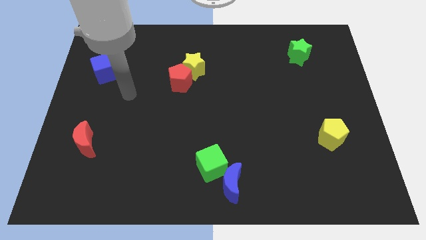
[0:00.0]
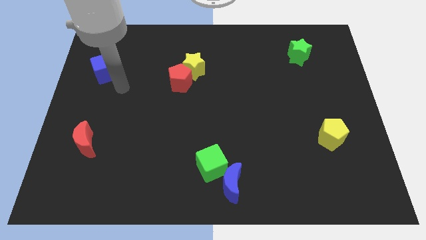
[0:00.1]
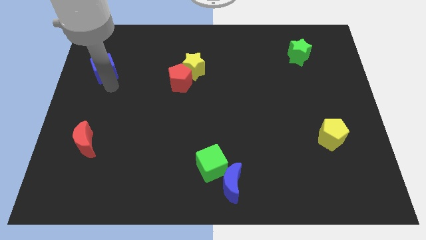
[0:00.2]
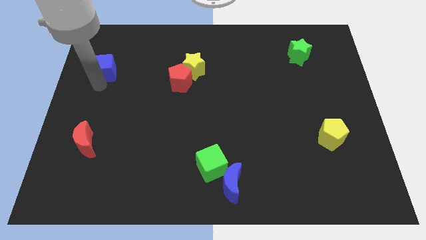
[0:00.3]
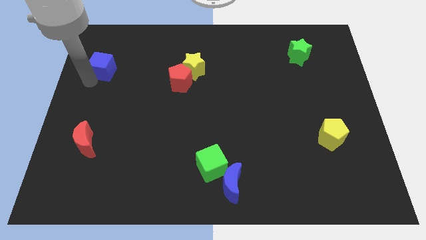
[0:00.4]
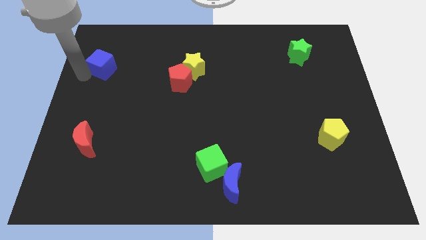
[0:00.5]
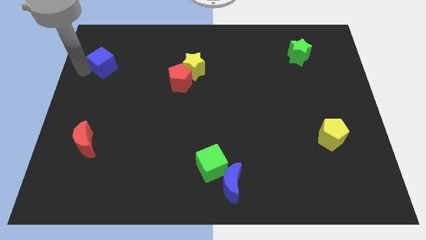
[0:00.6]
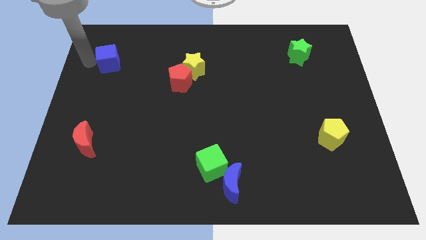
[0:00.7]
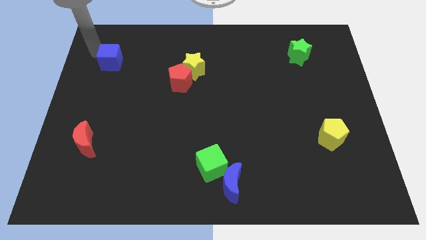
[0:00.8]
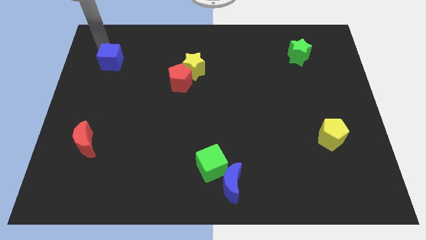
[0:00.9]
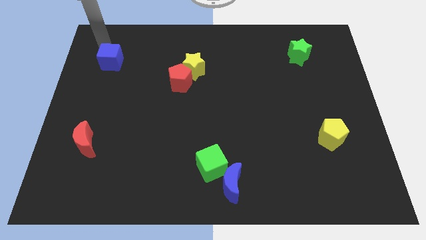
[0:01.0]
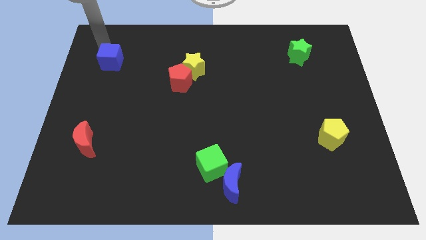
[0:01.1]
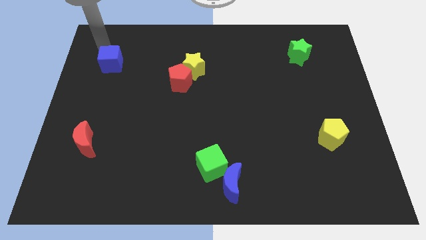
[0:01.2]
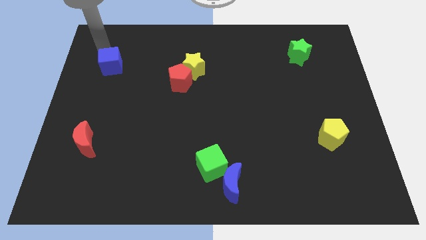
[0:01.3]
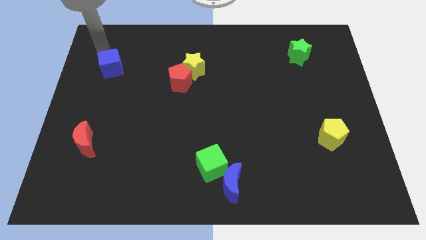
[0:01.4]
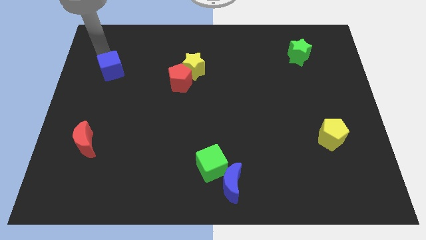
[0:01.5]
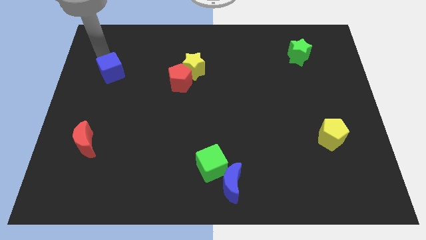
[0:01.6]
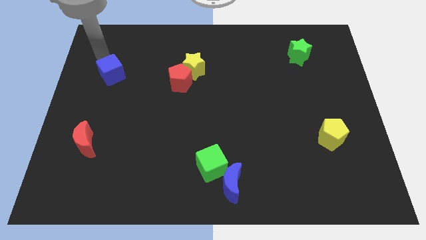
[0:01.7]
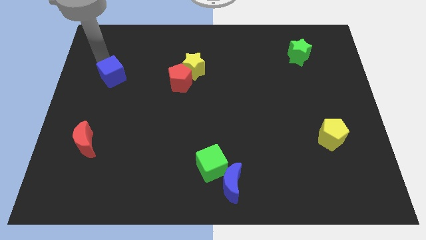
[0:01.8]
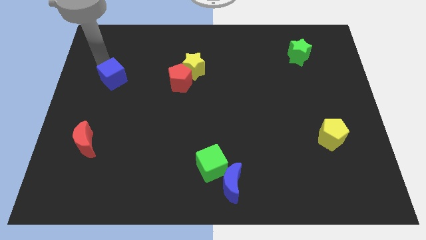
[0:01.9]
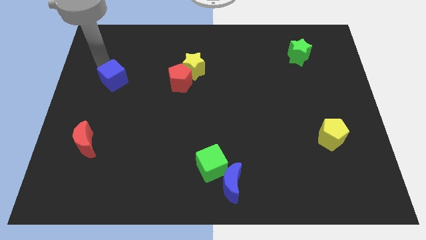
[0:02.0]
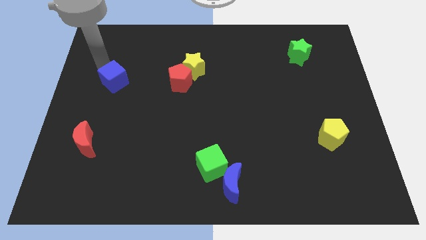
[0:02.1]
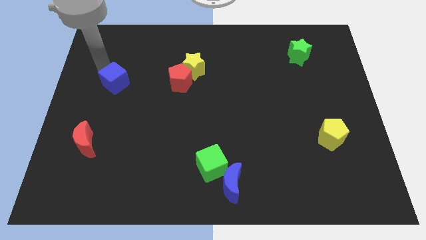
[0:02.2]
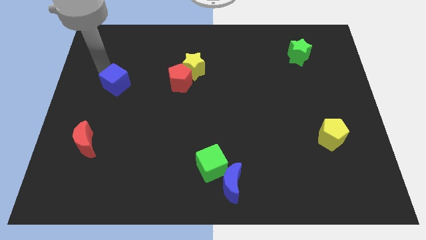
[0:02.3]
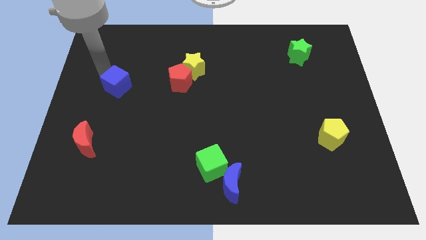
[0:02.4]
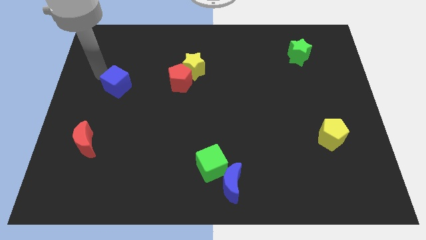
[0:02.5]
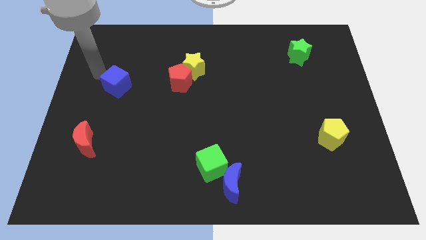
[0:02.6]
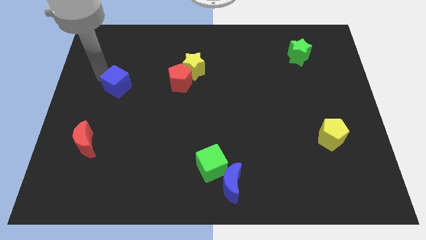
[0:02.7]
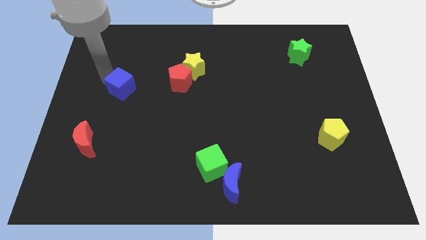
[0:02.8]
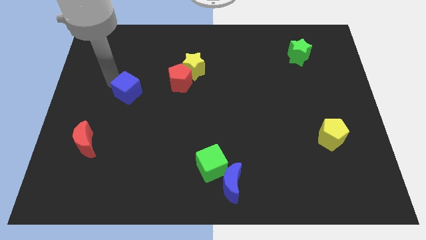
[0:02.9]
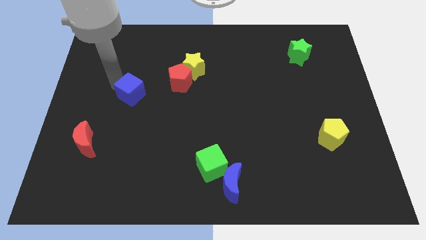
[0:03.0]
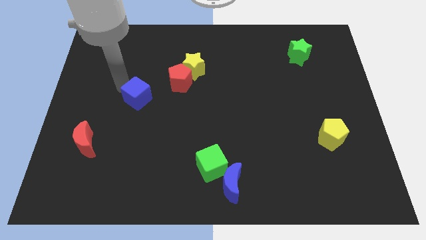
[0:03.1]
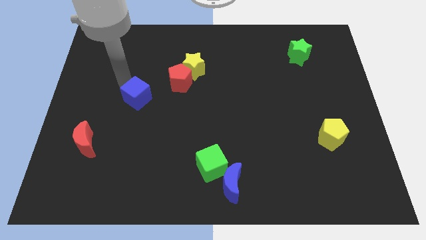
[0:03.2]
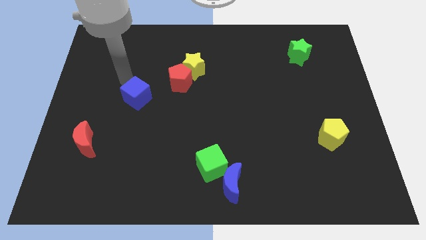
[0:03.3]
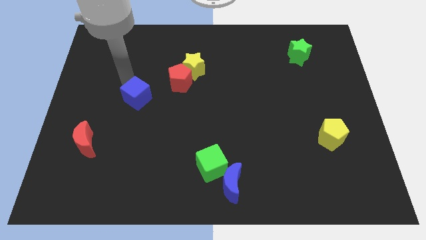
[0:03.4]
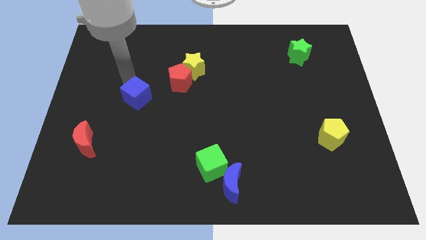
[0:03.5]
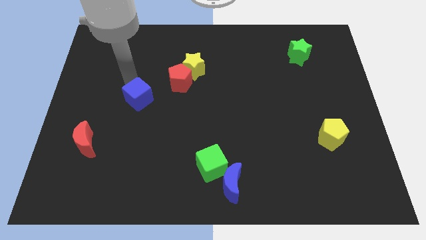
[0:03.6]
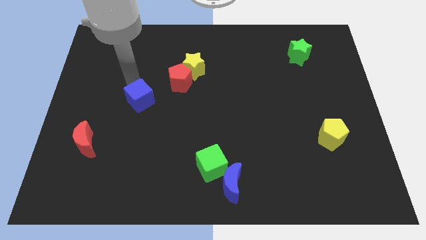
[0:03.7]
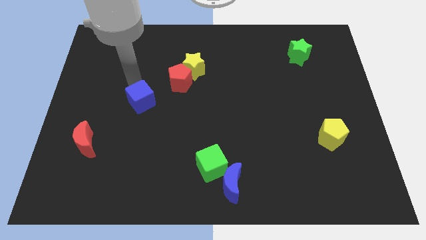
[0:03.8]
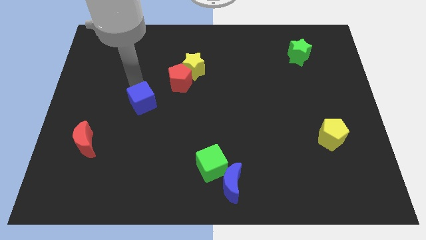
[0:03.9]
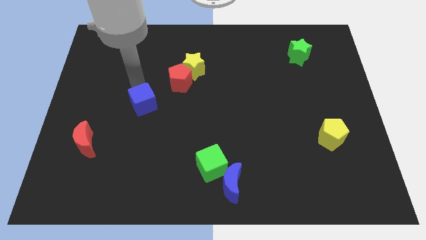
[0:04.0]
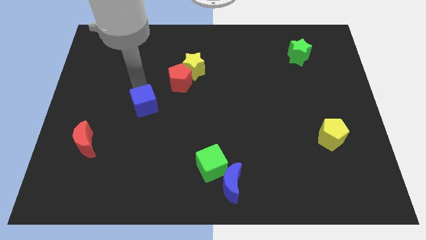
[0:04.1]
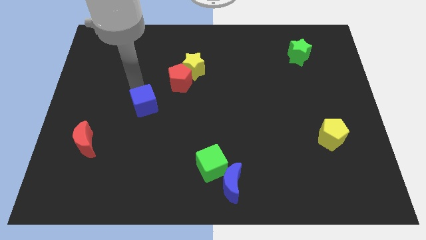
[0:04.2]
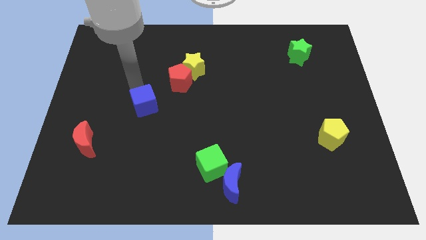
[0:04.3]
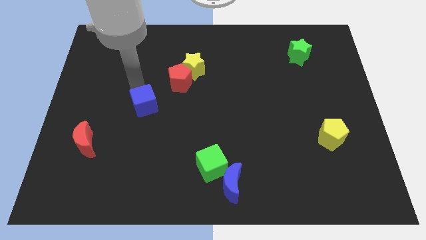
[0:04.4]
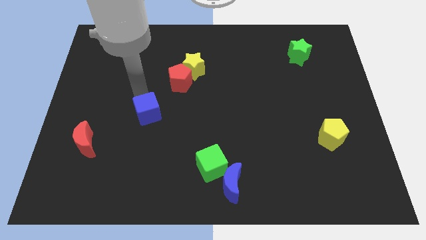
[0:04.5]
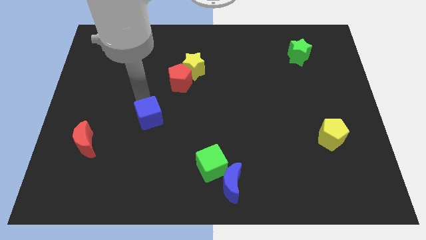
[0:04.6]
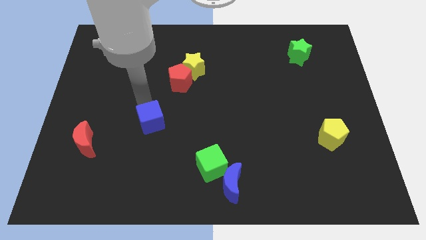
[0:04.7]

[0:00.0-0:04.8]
slide the blue cube diagonally down and right

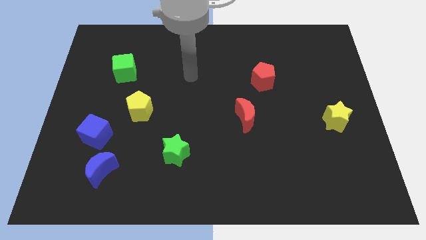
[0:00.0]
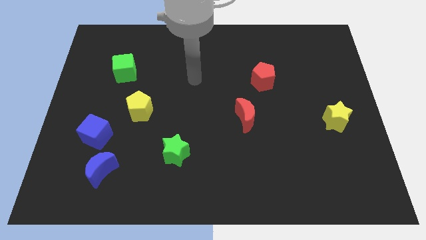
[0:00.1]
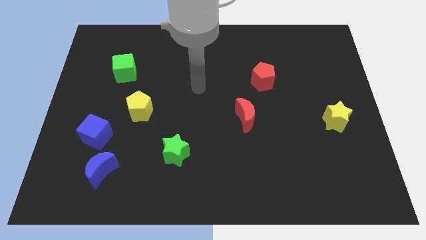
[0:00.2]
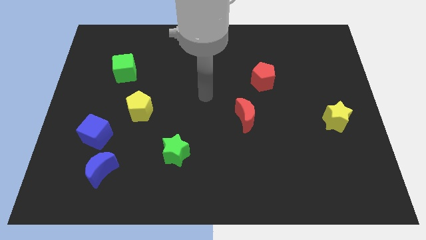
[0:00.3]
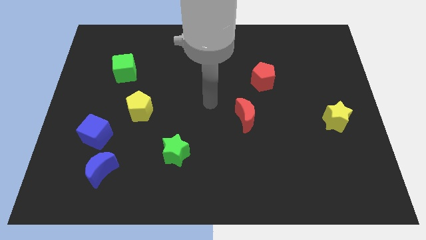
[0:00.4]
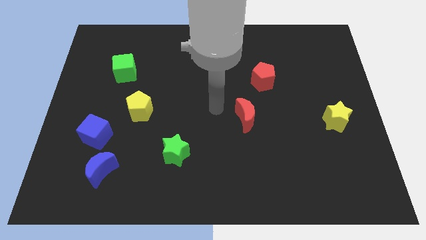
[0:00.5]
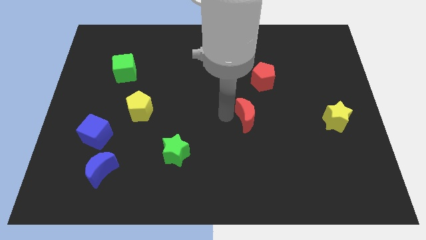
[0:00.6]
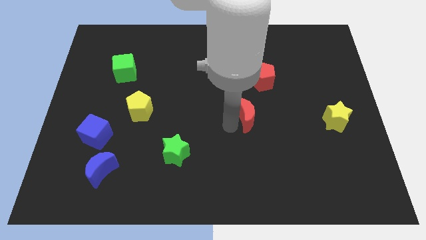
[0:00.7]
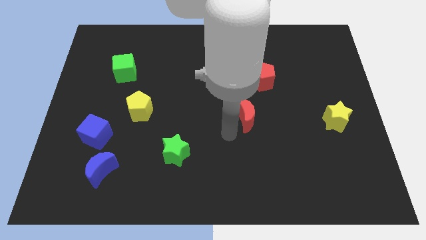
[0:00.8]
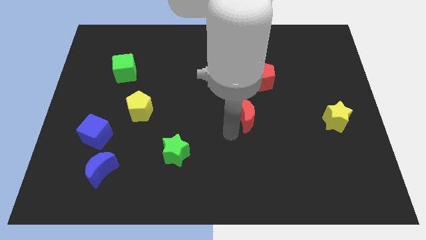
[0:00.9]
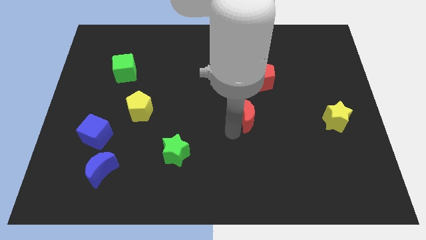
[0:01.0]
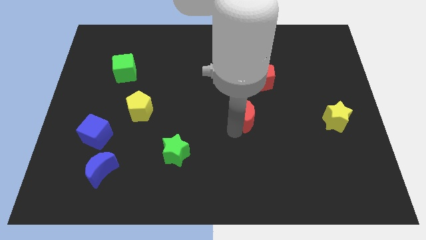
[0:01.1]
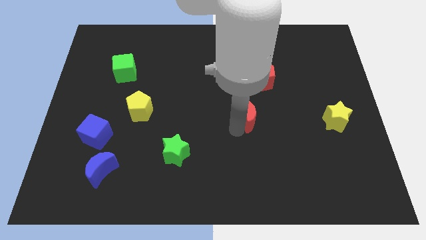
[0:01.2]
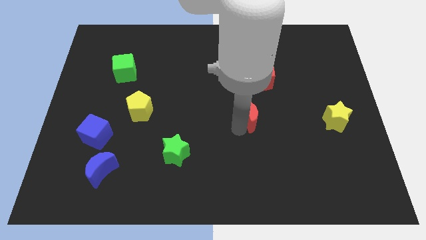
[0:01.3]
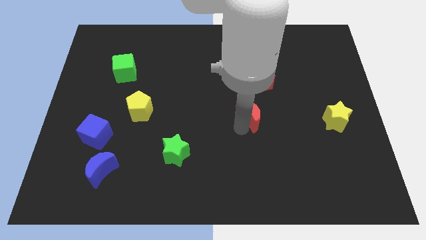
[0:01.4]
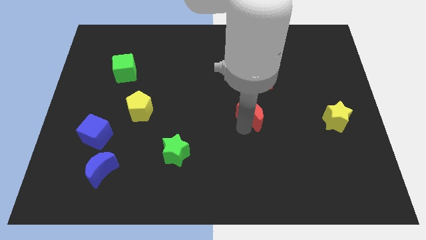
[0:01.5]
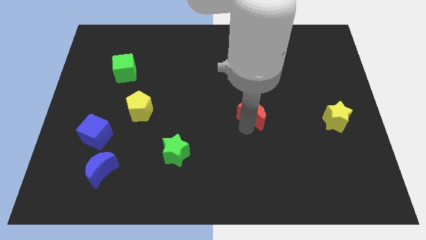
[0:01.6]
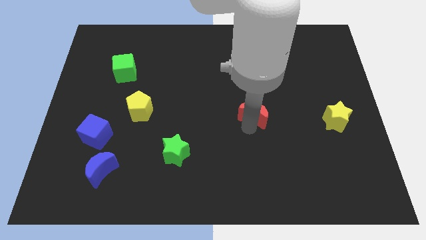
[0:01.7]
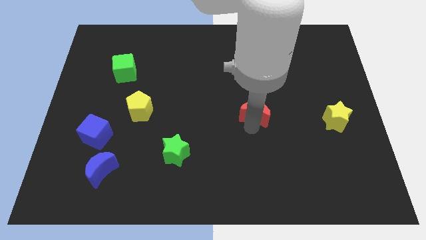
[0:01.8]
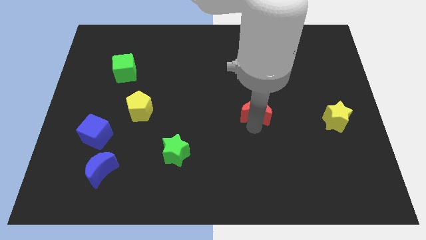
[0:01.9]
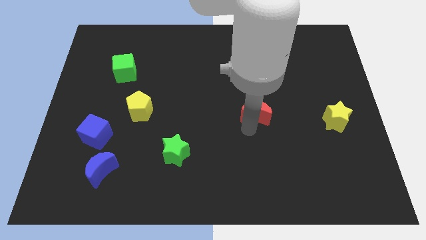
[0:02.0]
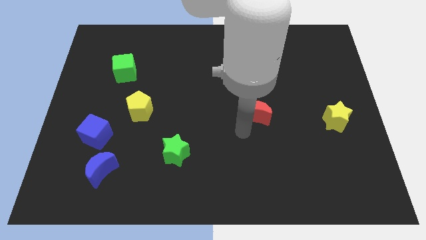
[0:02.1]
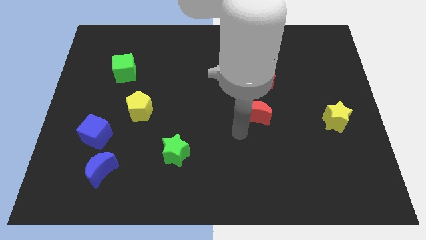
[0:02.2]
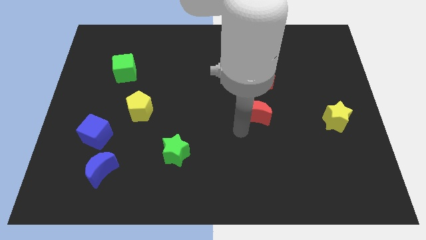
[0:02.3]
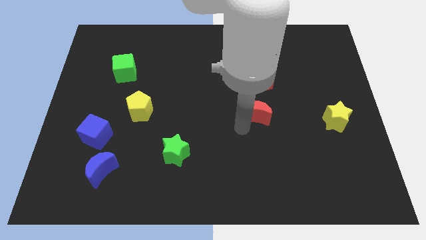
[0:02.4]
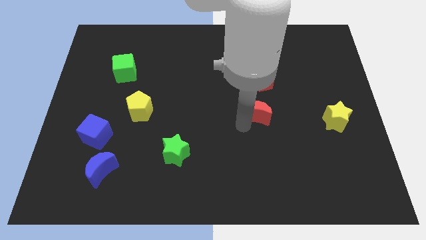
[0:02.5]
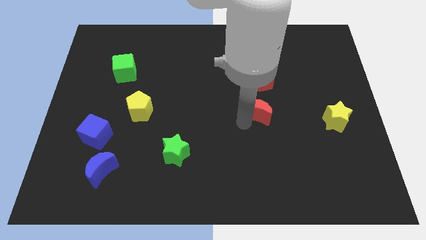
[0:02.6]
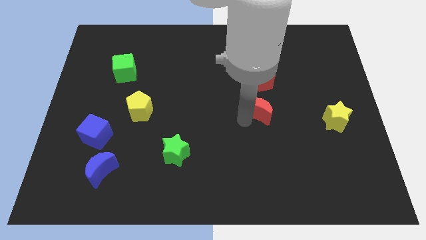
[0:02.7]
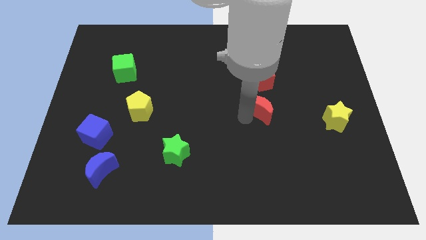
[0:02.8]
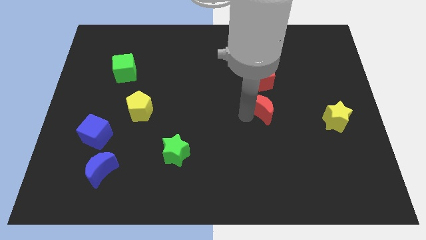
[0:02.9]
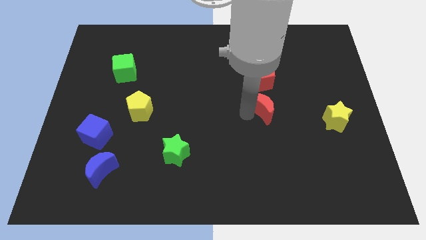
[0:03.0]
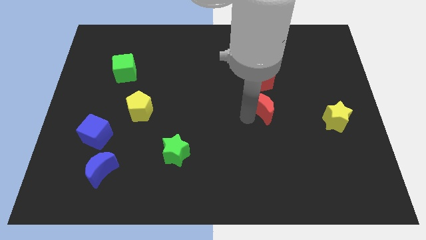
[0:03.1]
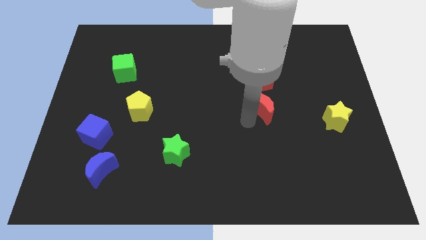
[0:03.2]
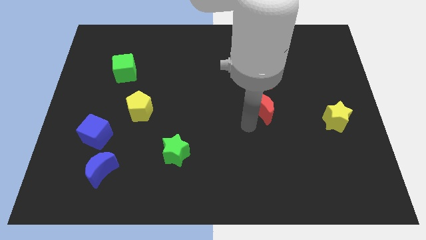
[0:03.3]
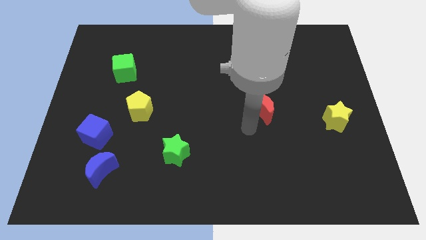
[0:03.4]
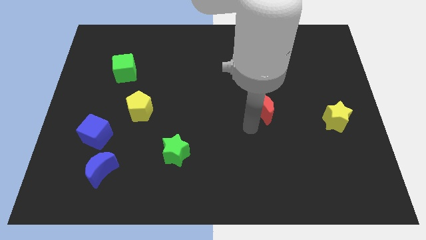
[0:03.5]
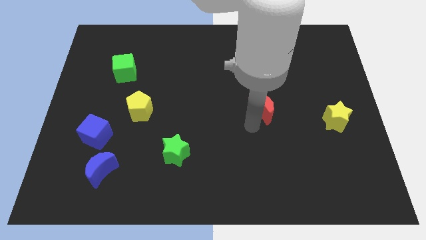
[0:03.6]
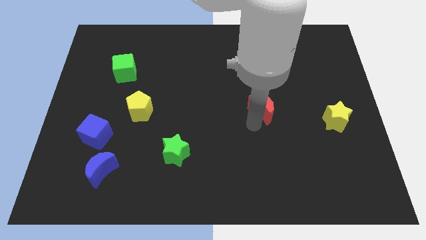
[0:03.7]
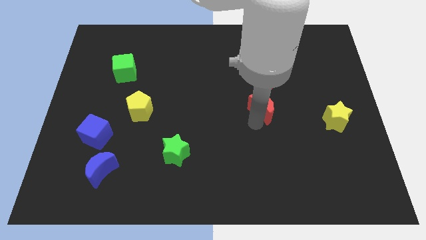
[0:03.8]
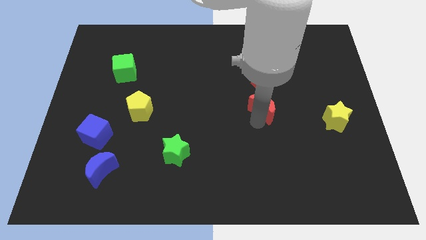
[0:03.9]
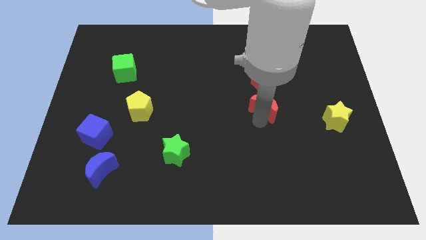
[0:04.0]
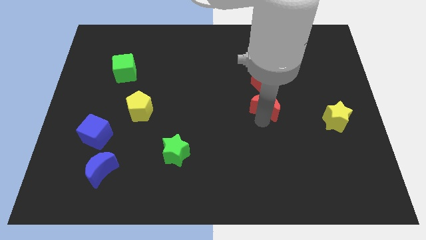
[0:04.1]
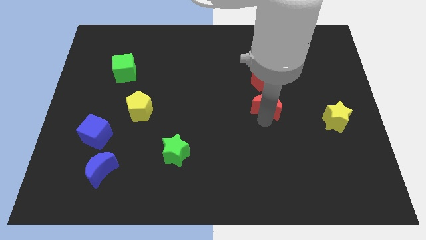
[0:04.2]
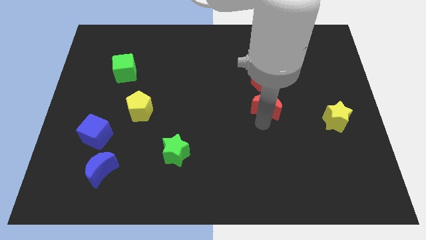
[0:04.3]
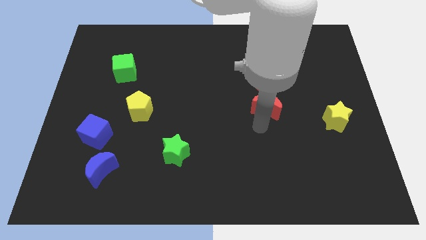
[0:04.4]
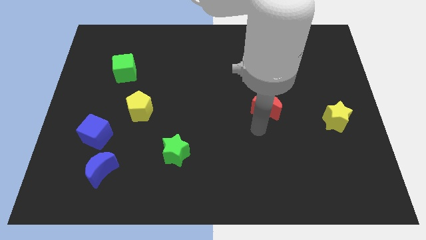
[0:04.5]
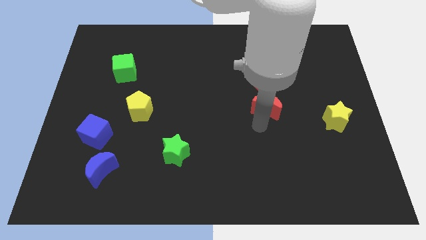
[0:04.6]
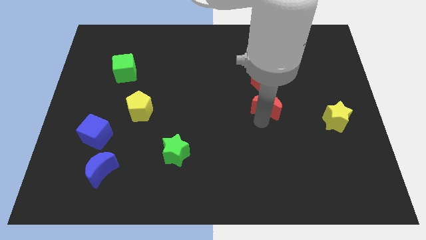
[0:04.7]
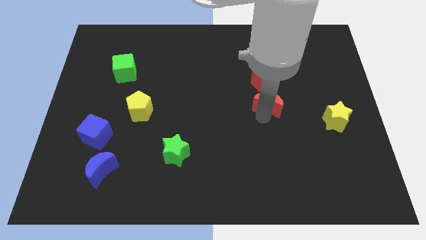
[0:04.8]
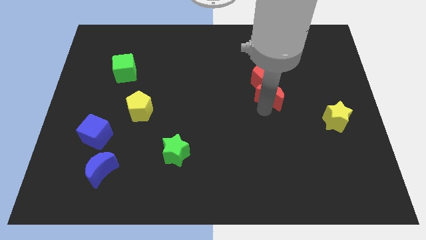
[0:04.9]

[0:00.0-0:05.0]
move the red moon slightly upwards and right diagonally
